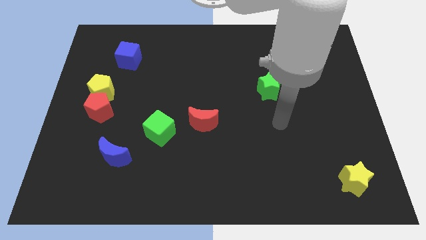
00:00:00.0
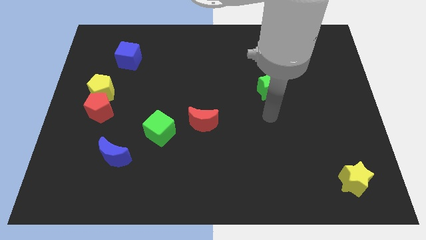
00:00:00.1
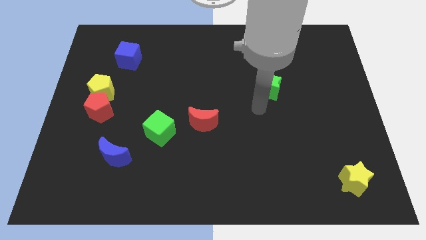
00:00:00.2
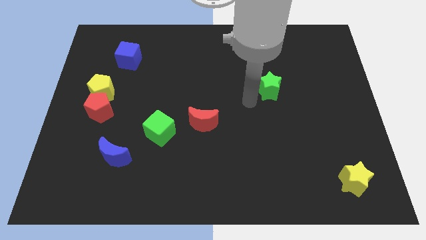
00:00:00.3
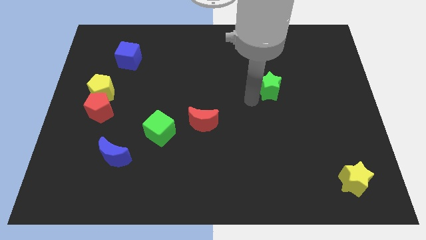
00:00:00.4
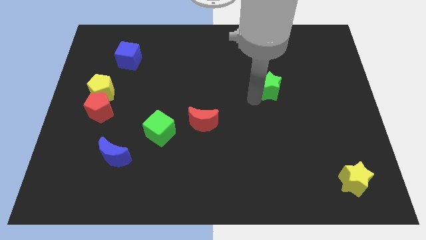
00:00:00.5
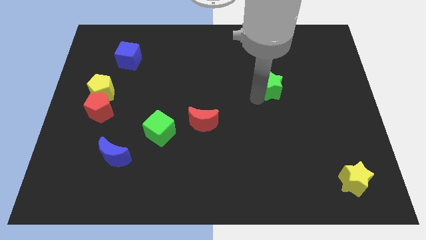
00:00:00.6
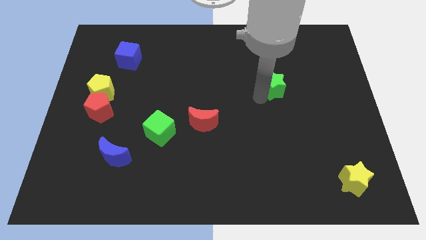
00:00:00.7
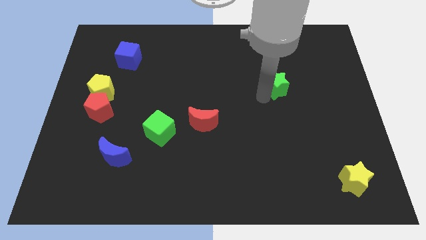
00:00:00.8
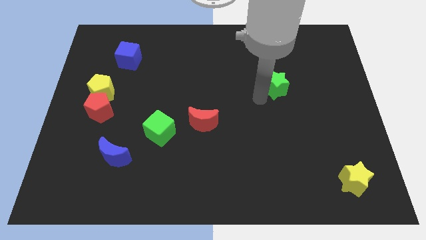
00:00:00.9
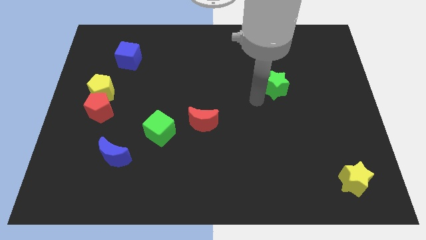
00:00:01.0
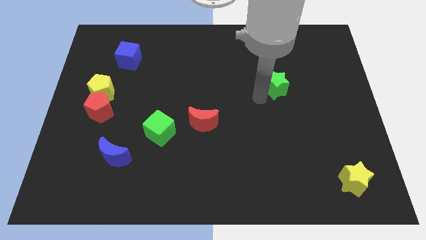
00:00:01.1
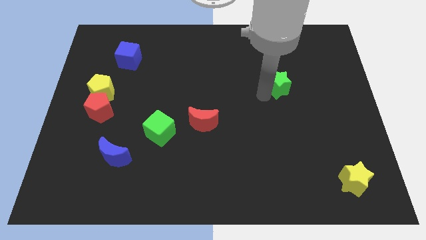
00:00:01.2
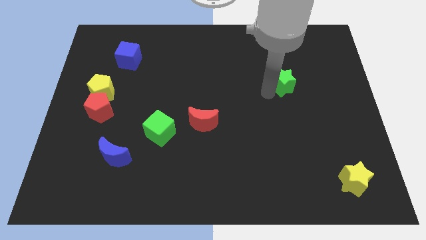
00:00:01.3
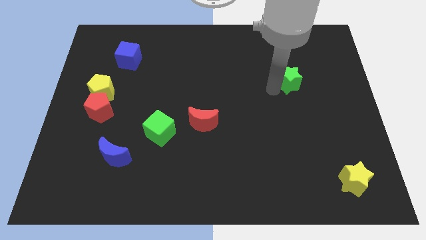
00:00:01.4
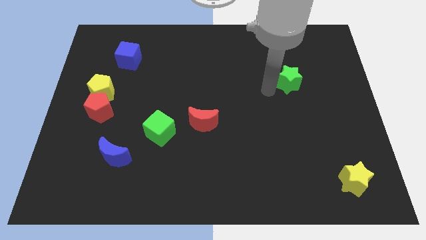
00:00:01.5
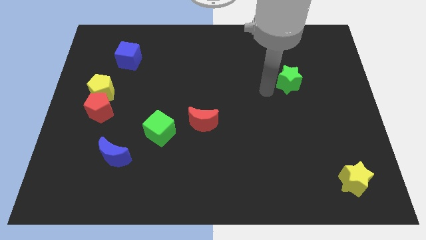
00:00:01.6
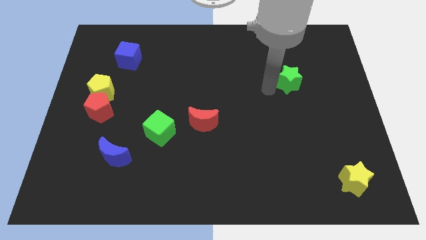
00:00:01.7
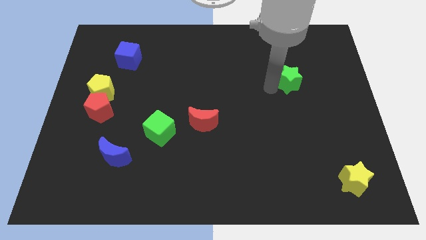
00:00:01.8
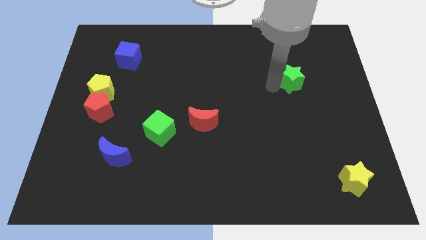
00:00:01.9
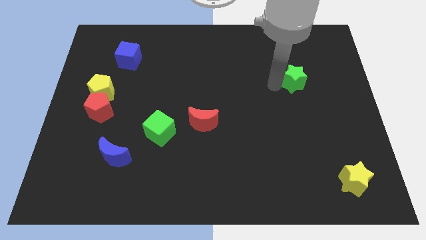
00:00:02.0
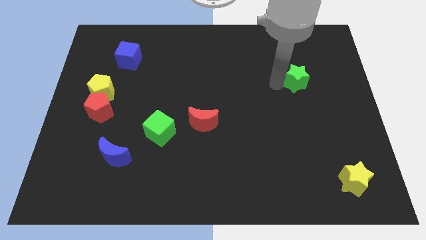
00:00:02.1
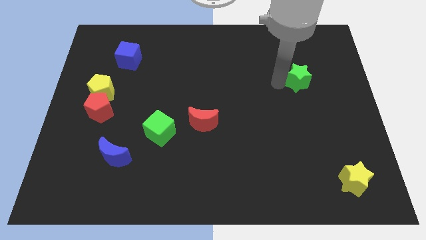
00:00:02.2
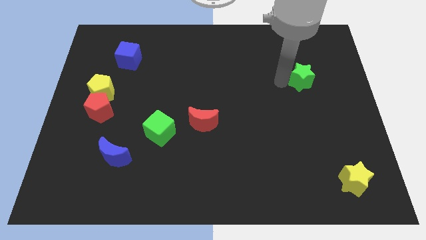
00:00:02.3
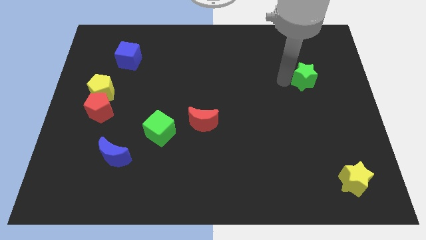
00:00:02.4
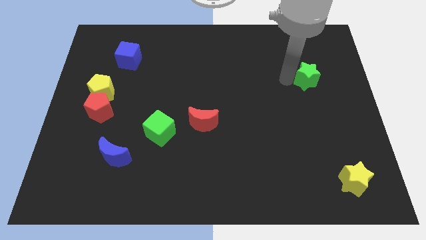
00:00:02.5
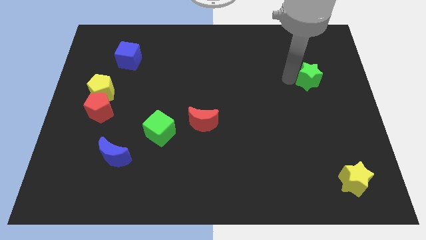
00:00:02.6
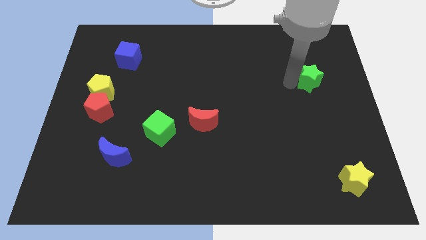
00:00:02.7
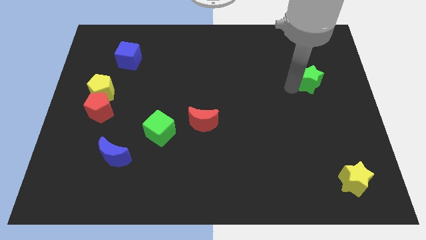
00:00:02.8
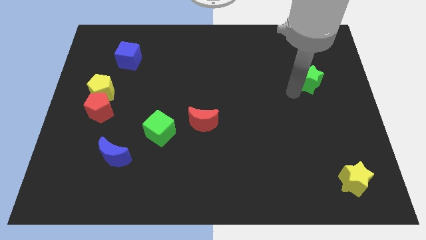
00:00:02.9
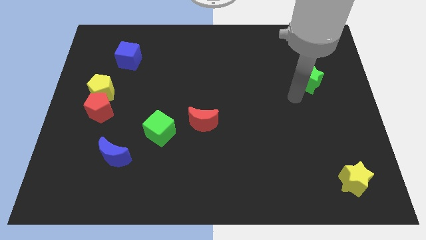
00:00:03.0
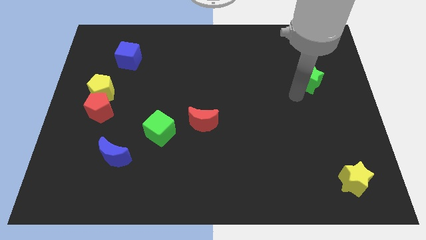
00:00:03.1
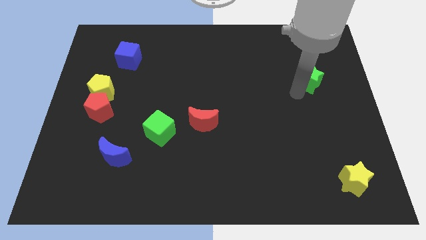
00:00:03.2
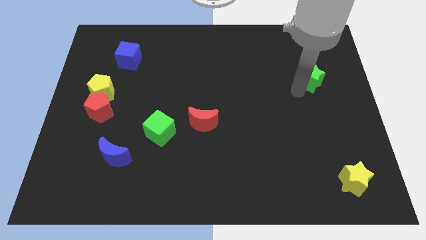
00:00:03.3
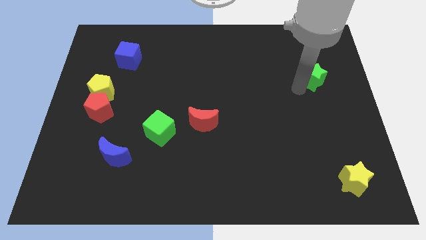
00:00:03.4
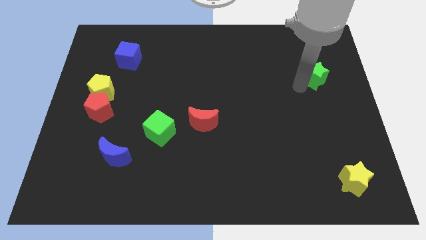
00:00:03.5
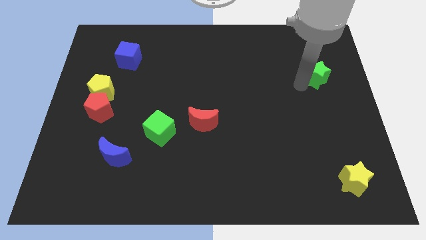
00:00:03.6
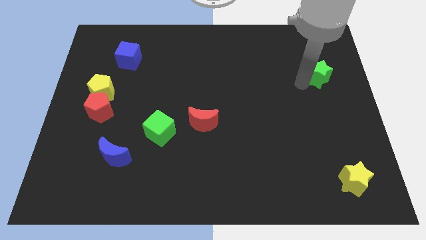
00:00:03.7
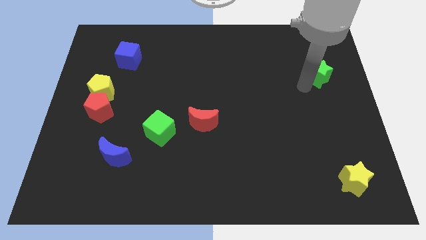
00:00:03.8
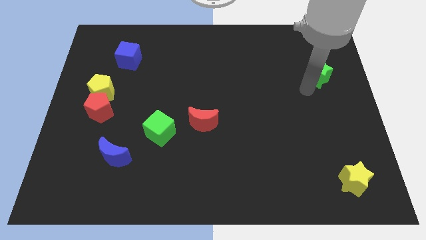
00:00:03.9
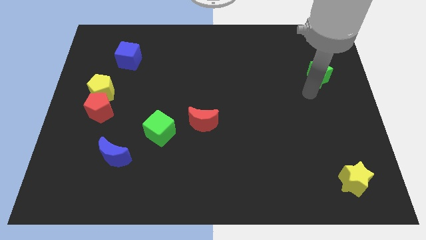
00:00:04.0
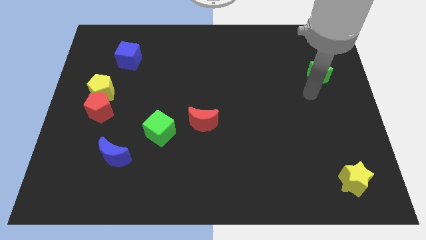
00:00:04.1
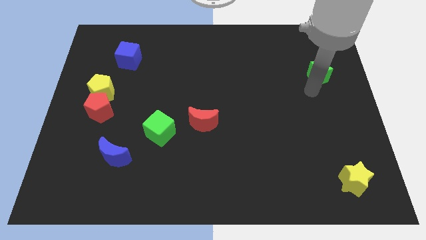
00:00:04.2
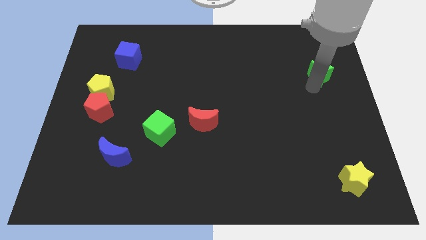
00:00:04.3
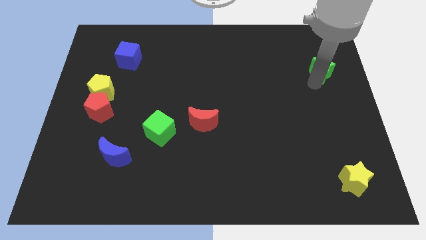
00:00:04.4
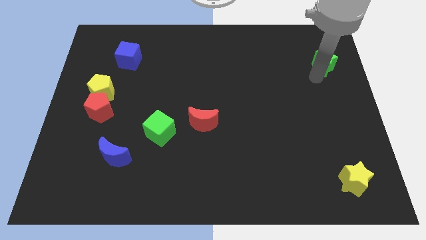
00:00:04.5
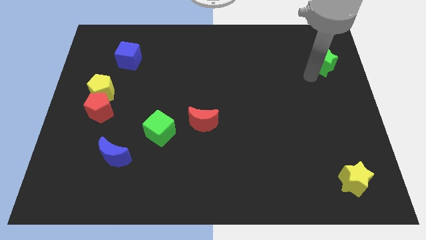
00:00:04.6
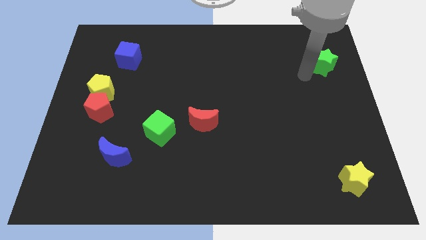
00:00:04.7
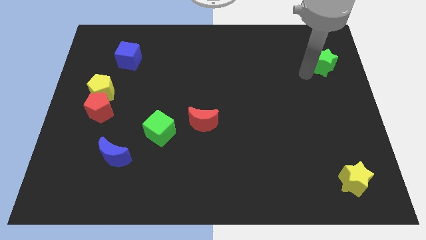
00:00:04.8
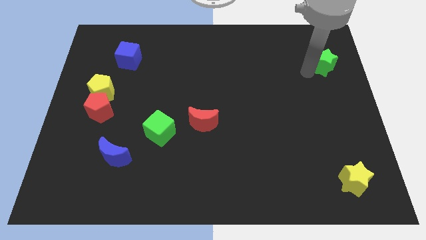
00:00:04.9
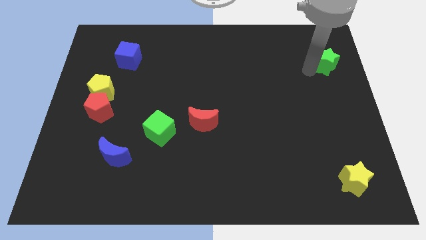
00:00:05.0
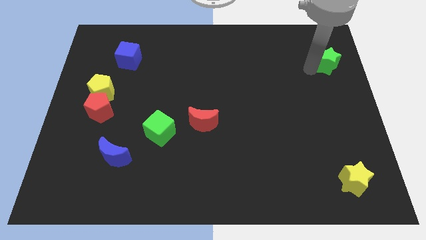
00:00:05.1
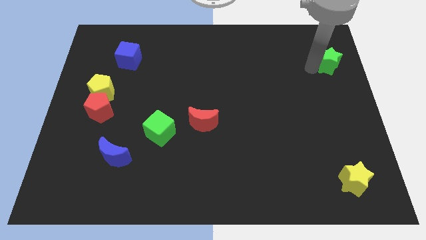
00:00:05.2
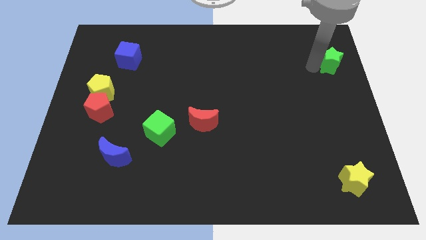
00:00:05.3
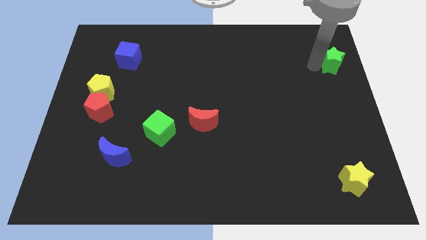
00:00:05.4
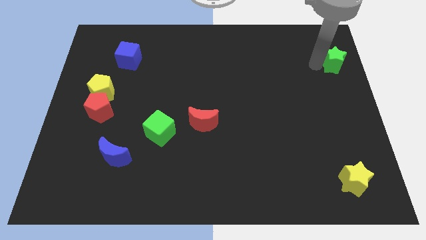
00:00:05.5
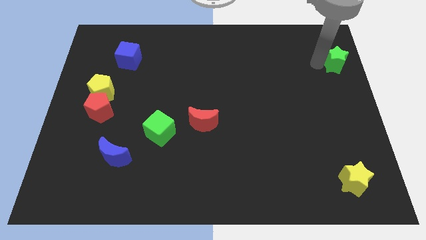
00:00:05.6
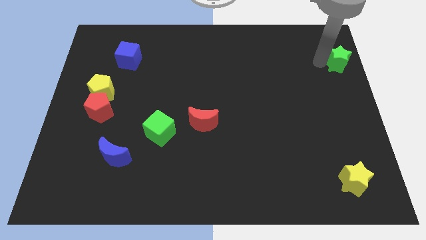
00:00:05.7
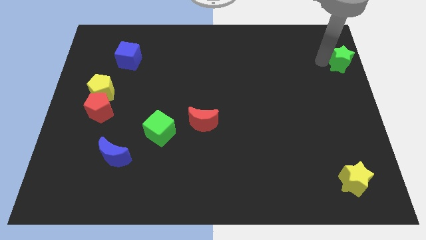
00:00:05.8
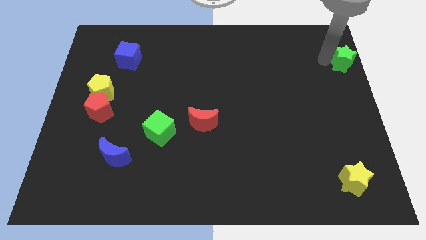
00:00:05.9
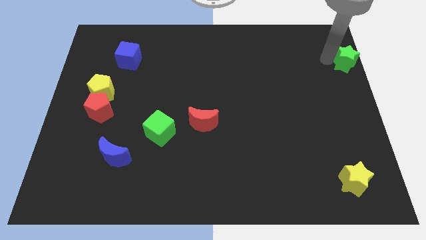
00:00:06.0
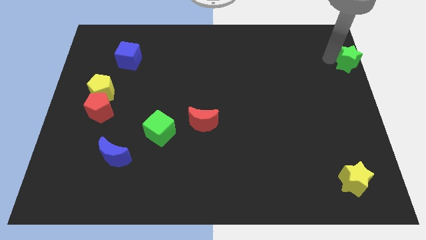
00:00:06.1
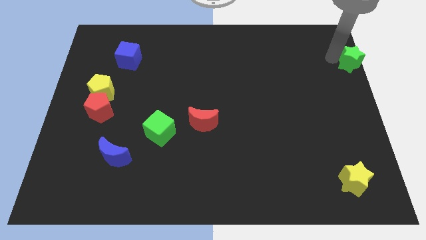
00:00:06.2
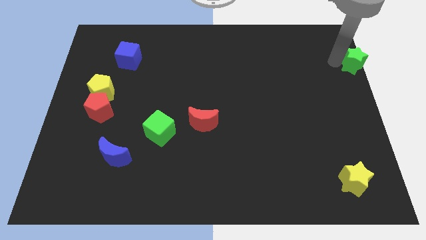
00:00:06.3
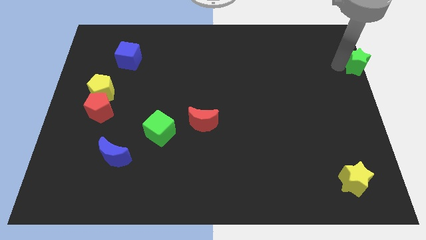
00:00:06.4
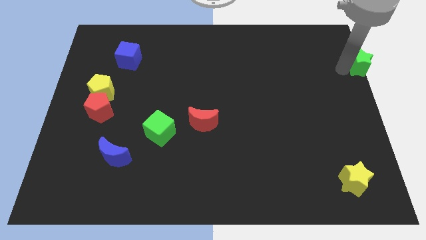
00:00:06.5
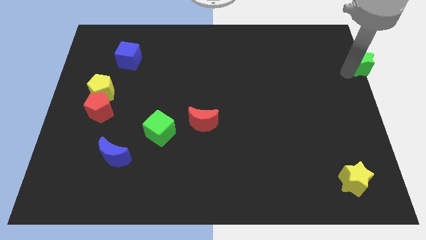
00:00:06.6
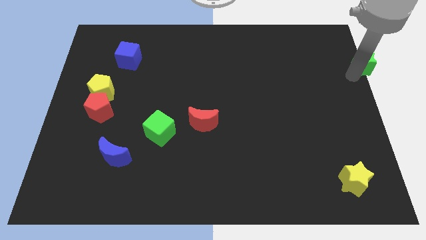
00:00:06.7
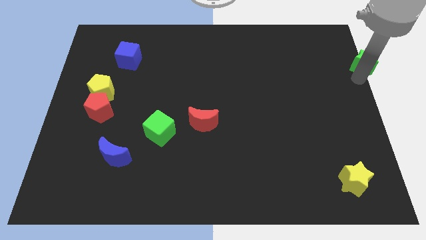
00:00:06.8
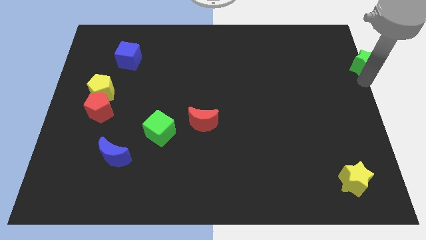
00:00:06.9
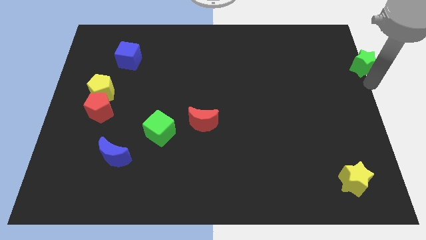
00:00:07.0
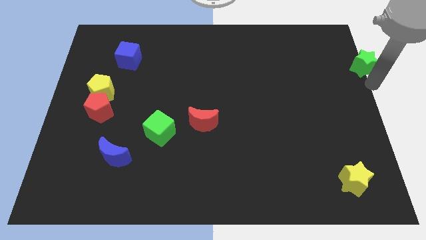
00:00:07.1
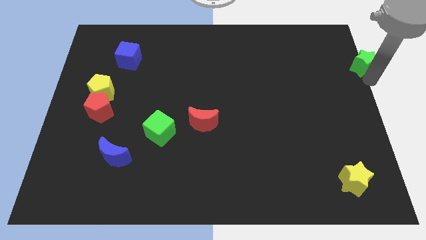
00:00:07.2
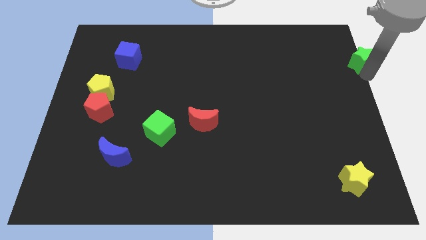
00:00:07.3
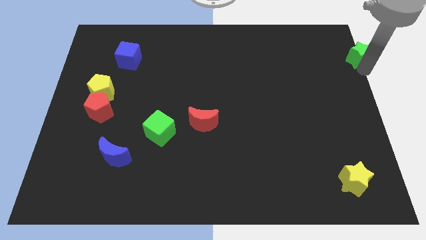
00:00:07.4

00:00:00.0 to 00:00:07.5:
slide the green star to the top right of the board

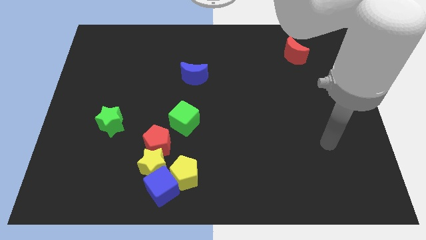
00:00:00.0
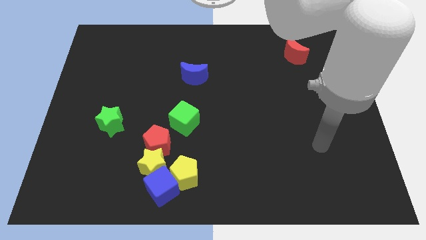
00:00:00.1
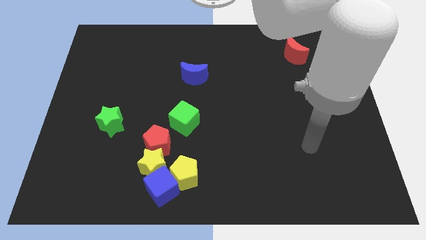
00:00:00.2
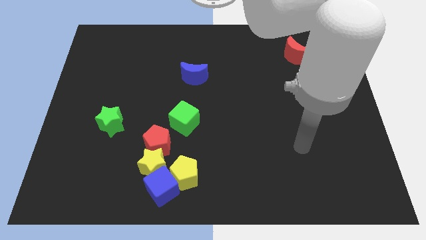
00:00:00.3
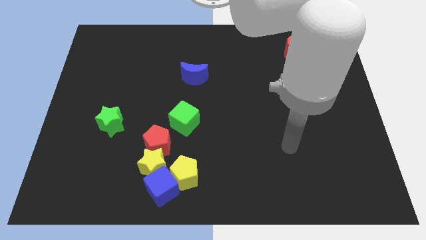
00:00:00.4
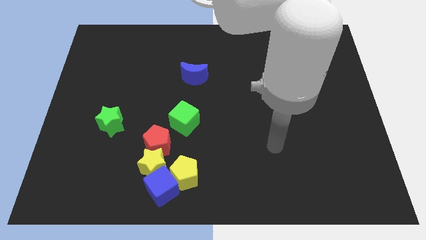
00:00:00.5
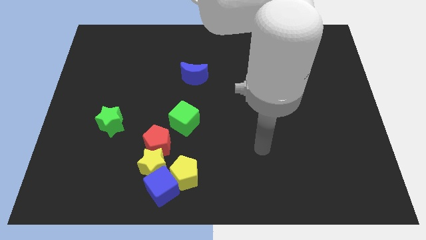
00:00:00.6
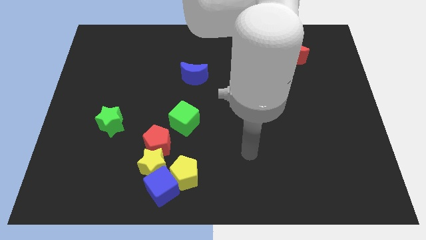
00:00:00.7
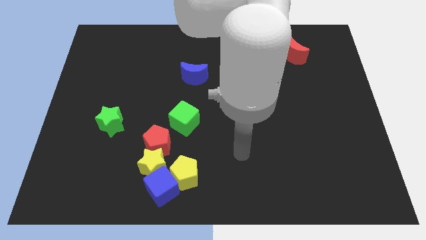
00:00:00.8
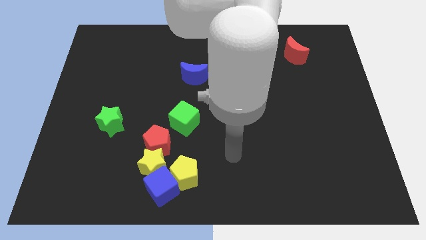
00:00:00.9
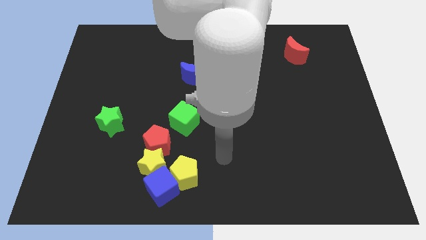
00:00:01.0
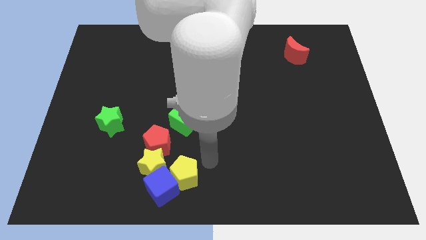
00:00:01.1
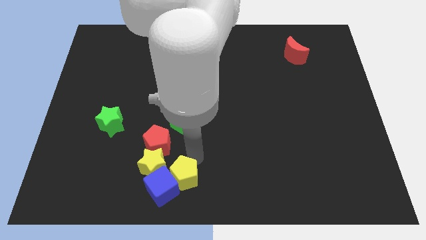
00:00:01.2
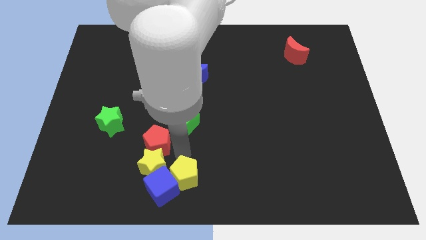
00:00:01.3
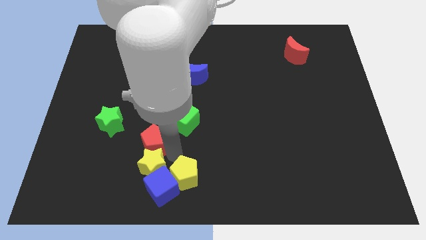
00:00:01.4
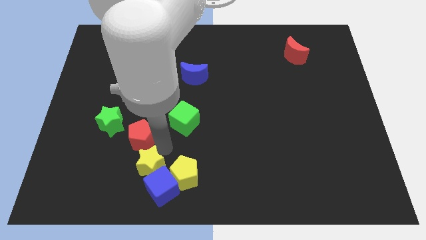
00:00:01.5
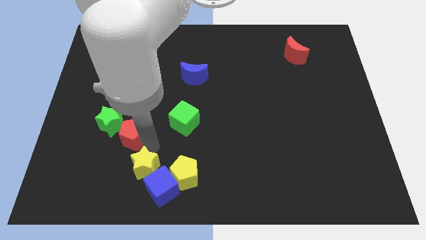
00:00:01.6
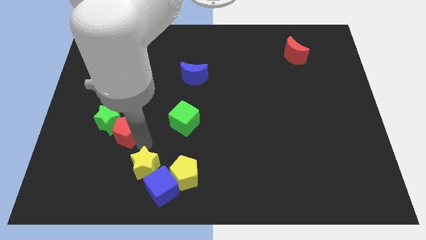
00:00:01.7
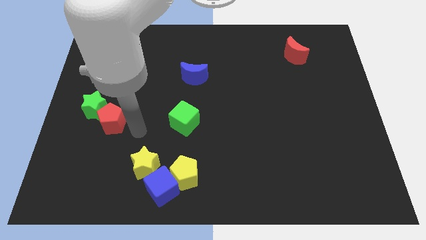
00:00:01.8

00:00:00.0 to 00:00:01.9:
slide the green star to the left side
